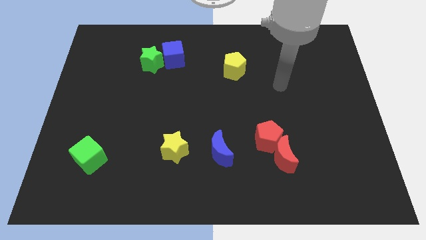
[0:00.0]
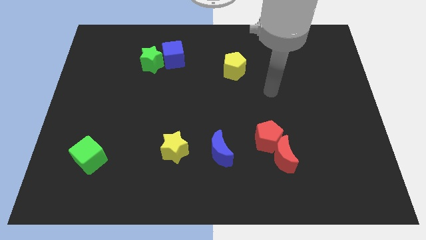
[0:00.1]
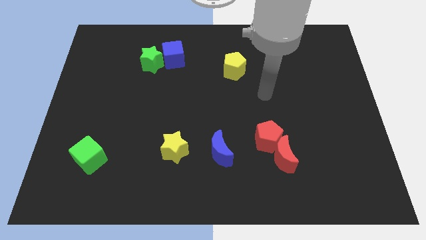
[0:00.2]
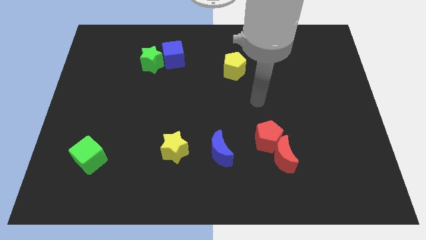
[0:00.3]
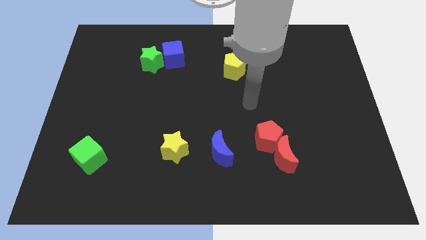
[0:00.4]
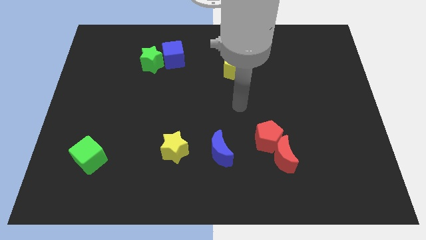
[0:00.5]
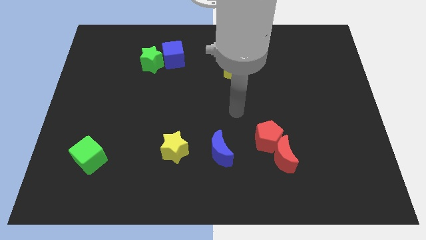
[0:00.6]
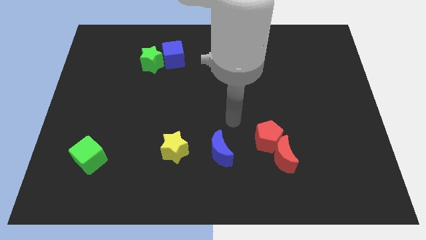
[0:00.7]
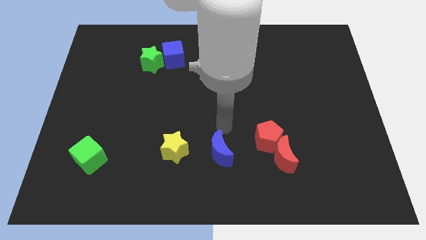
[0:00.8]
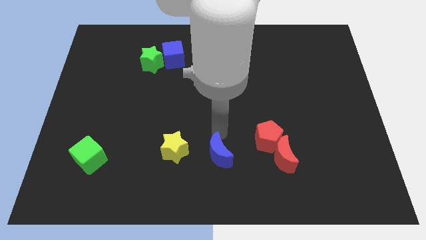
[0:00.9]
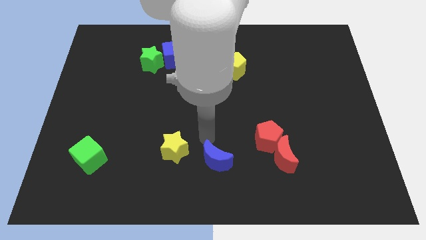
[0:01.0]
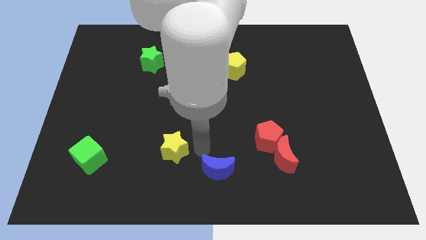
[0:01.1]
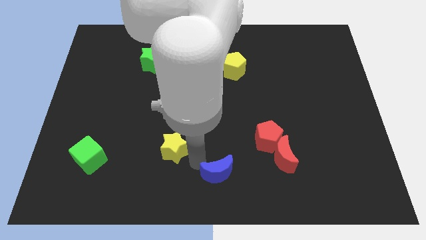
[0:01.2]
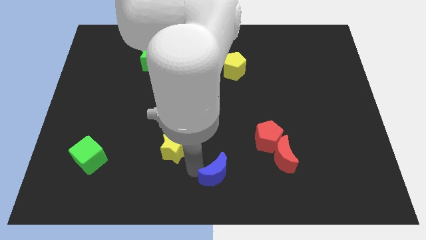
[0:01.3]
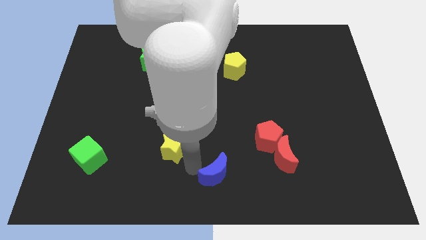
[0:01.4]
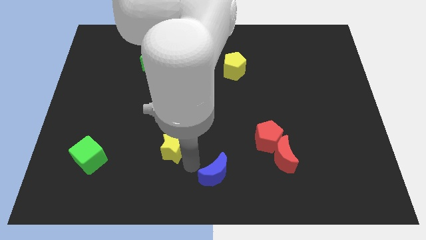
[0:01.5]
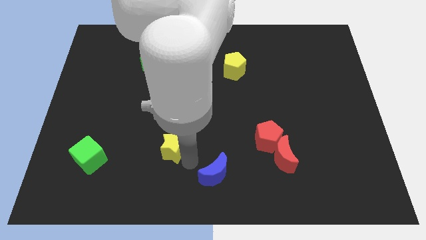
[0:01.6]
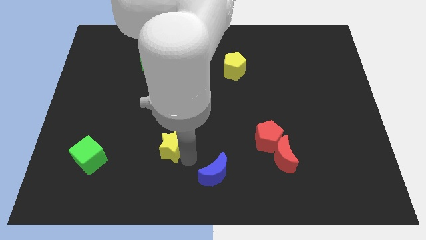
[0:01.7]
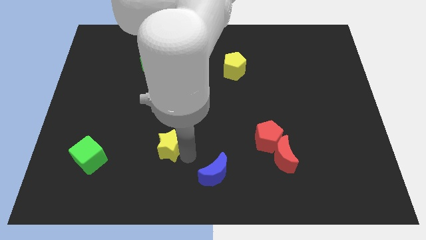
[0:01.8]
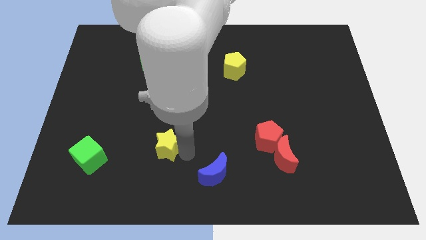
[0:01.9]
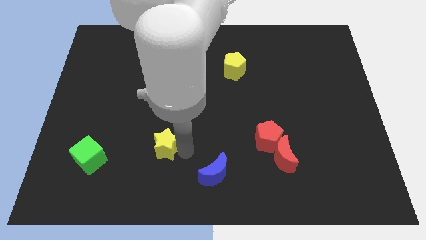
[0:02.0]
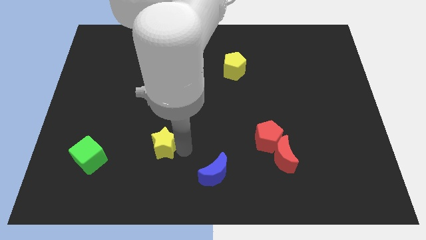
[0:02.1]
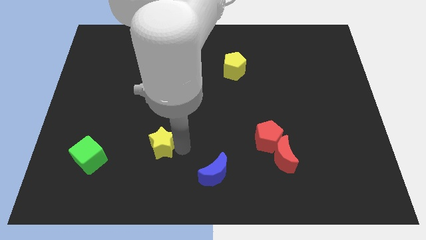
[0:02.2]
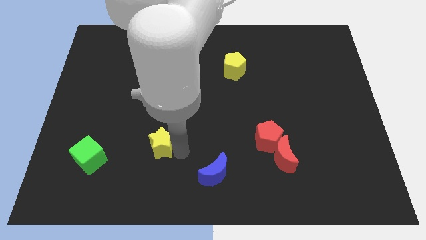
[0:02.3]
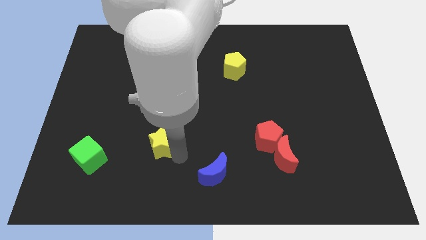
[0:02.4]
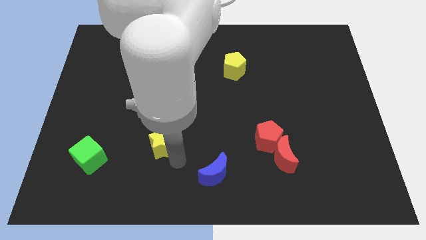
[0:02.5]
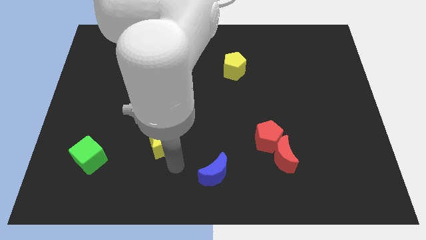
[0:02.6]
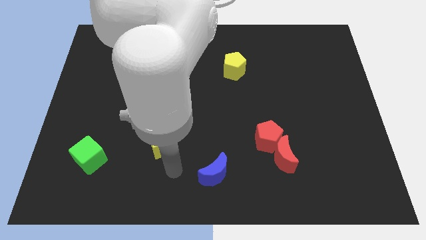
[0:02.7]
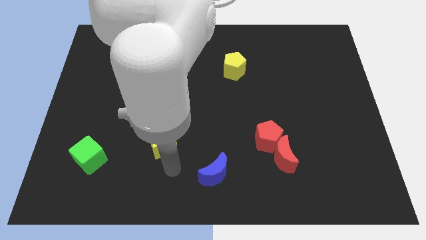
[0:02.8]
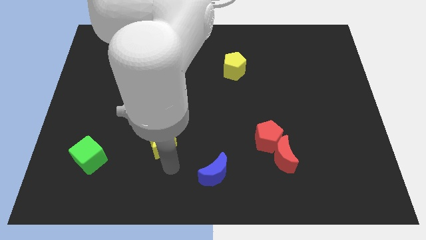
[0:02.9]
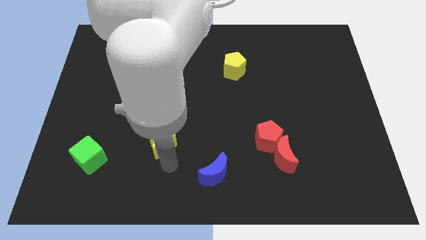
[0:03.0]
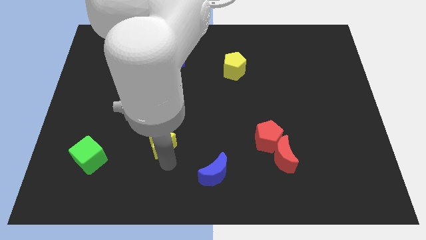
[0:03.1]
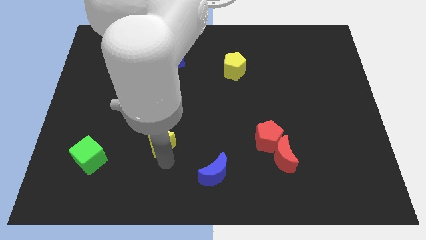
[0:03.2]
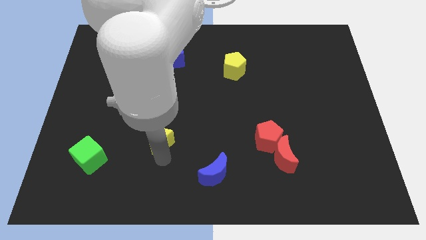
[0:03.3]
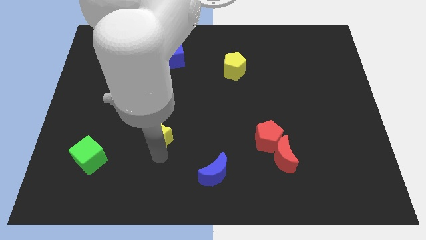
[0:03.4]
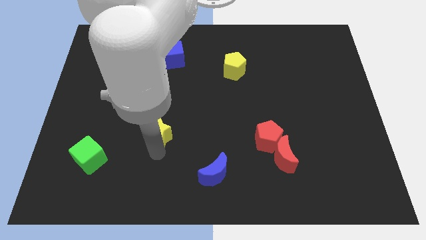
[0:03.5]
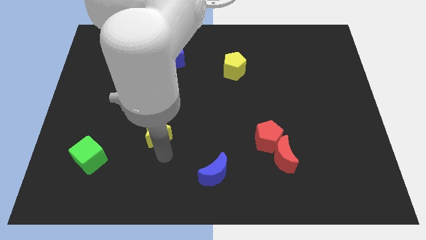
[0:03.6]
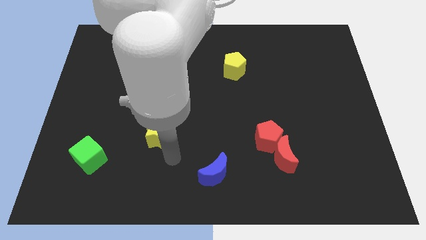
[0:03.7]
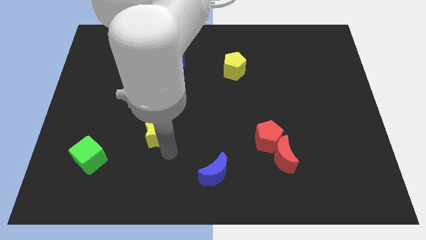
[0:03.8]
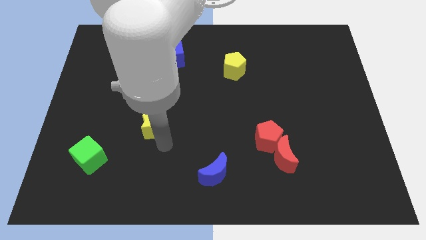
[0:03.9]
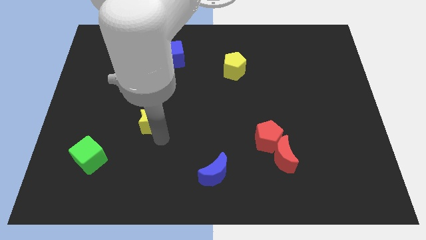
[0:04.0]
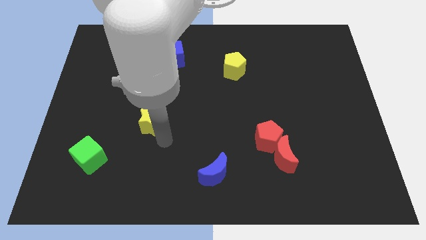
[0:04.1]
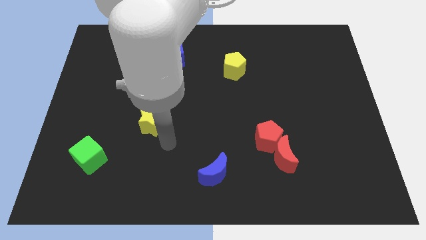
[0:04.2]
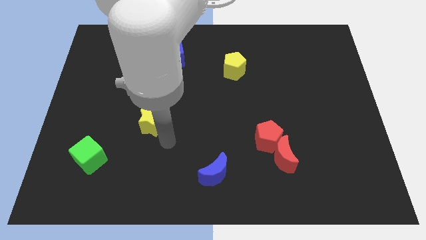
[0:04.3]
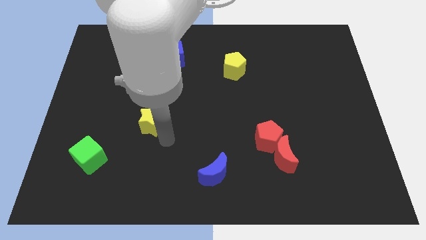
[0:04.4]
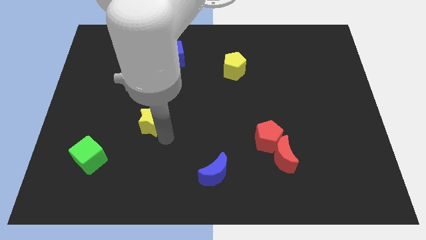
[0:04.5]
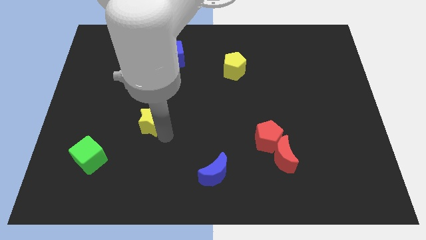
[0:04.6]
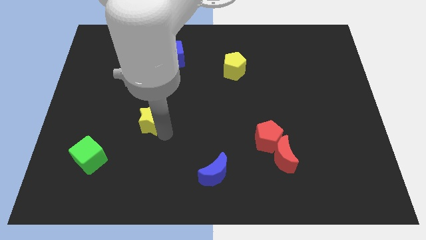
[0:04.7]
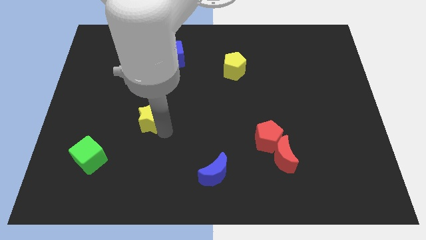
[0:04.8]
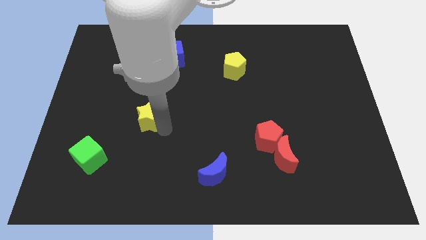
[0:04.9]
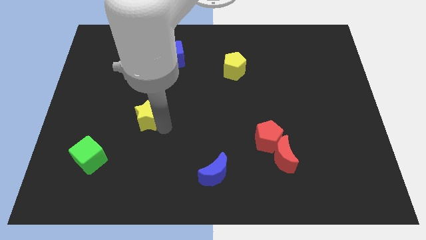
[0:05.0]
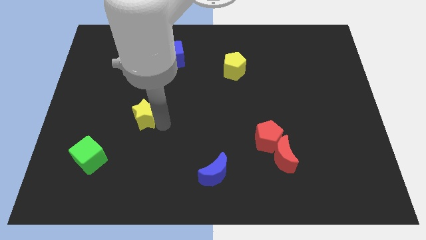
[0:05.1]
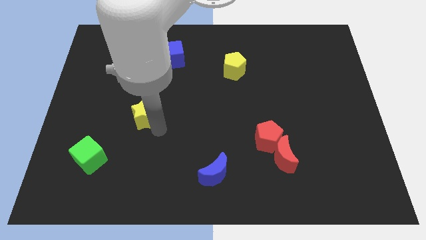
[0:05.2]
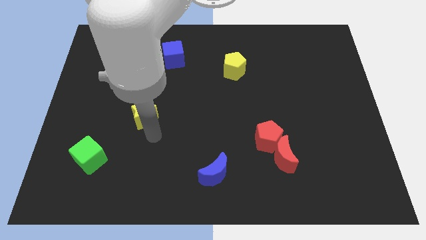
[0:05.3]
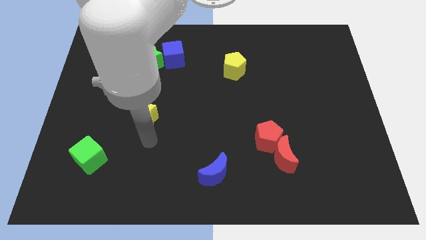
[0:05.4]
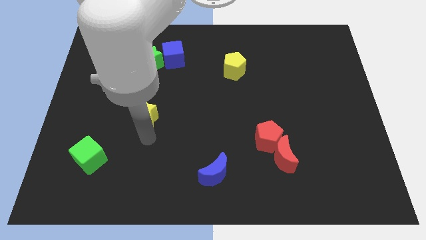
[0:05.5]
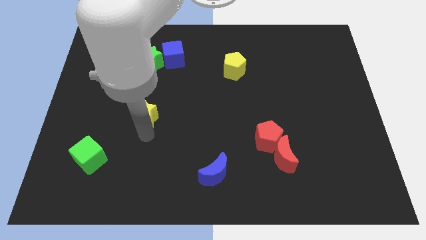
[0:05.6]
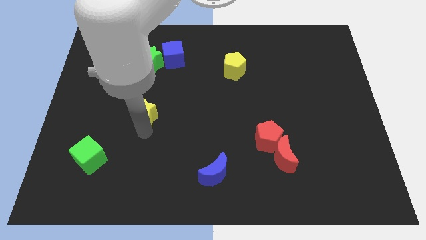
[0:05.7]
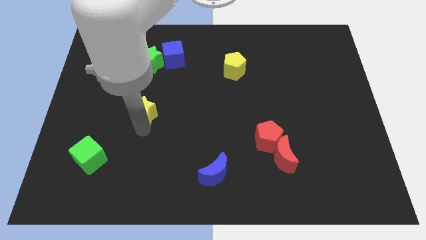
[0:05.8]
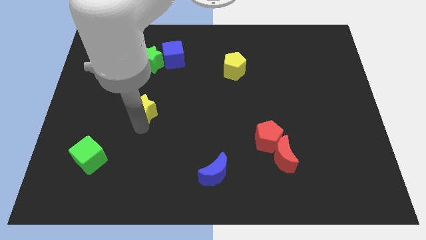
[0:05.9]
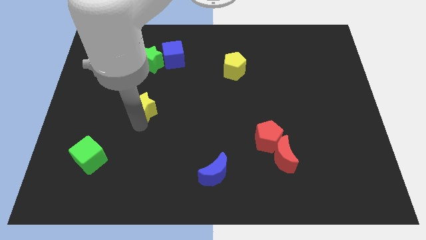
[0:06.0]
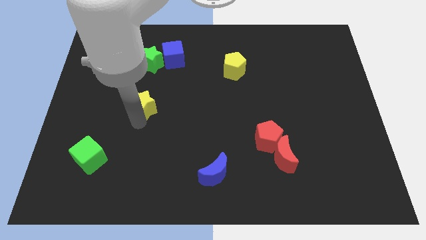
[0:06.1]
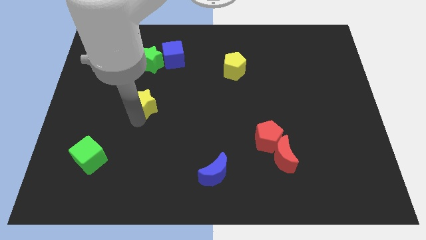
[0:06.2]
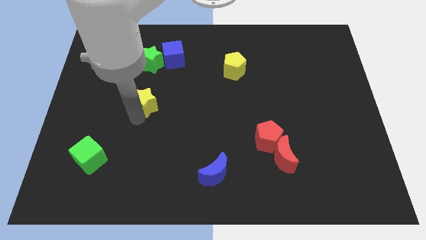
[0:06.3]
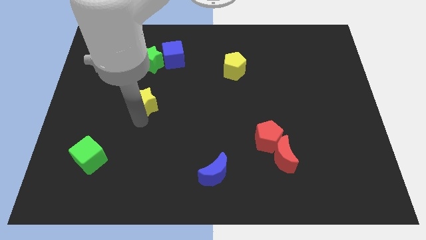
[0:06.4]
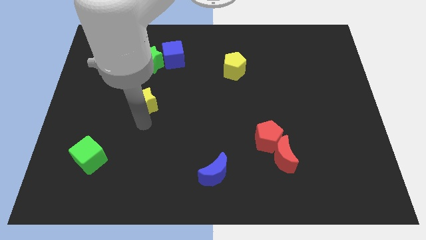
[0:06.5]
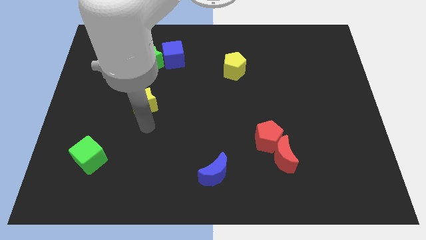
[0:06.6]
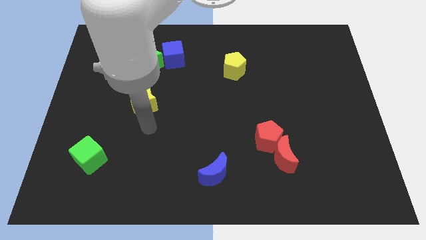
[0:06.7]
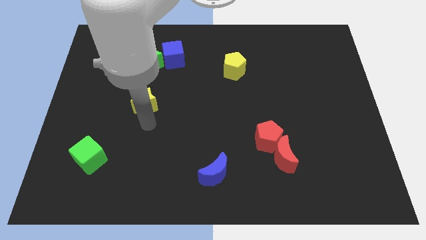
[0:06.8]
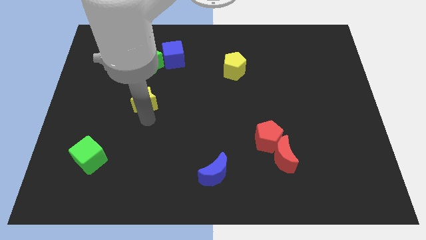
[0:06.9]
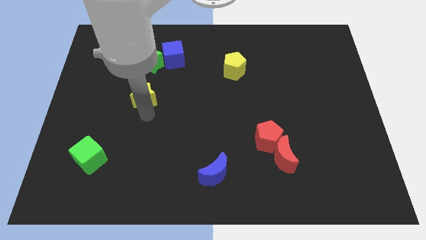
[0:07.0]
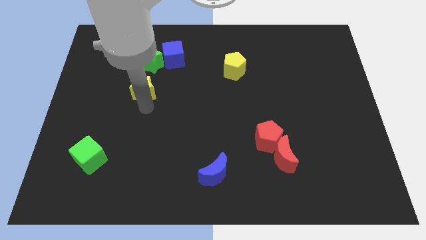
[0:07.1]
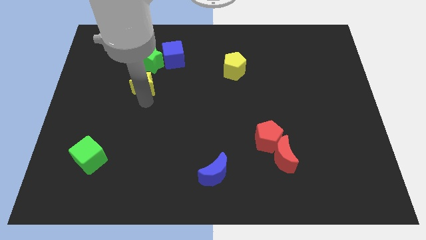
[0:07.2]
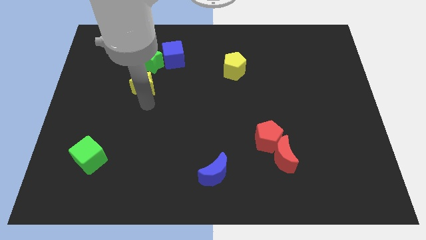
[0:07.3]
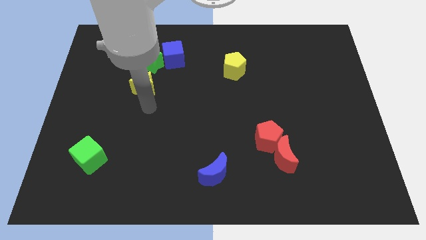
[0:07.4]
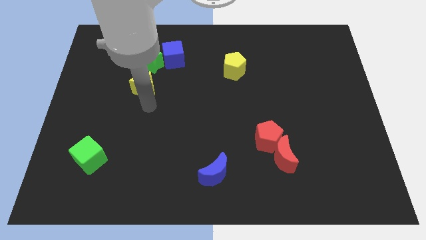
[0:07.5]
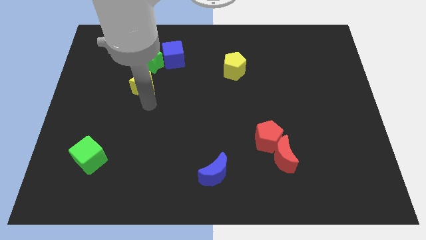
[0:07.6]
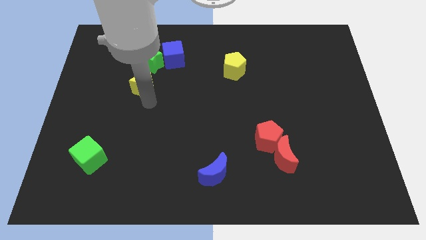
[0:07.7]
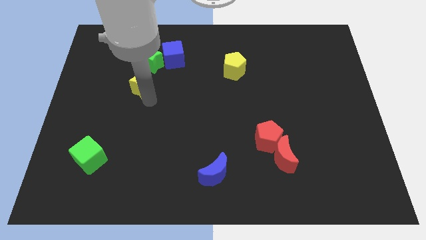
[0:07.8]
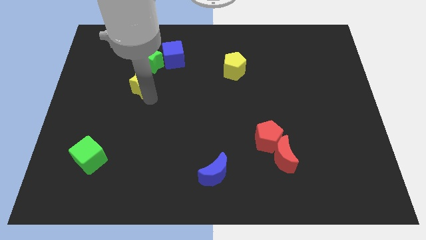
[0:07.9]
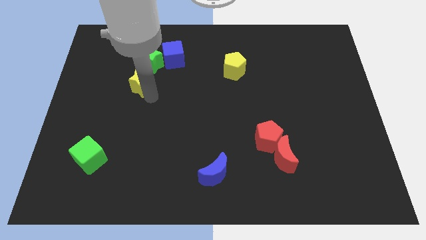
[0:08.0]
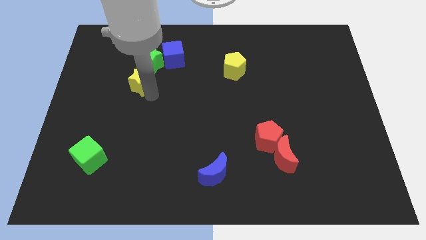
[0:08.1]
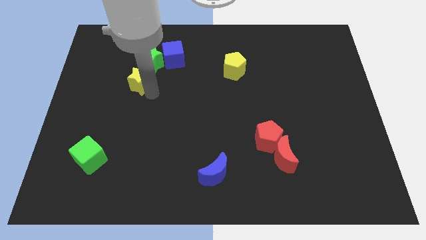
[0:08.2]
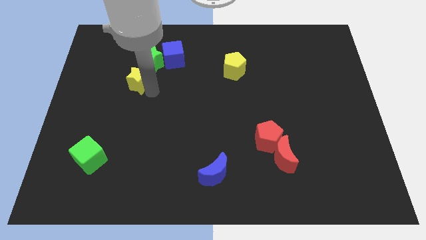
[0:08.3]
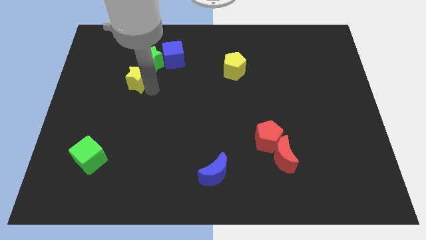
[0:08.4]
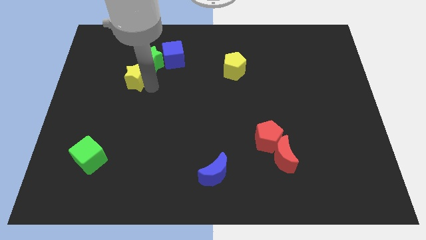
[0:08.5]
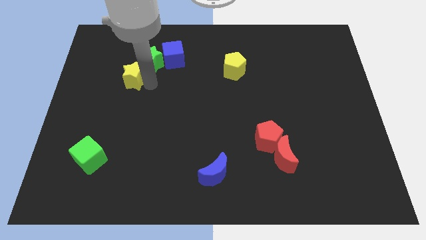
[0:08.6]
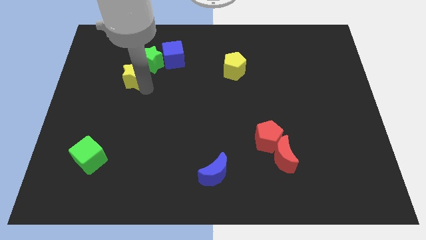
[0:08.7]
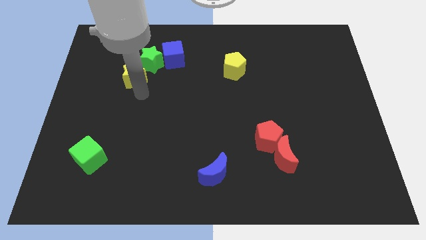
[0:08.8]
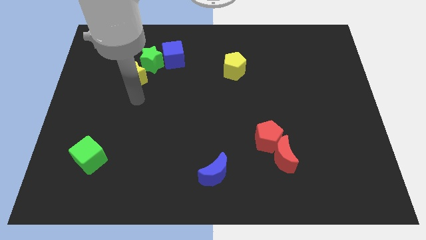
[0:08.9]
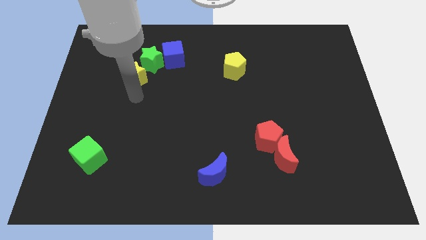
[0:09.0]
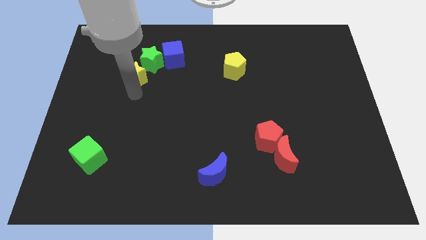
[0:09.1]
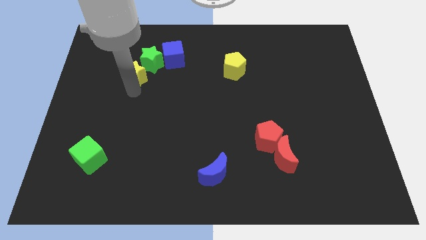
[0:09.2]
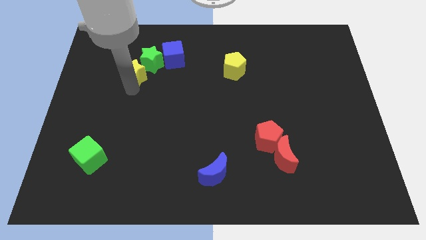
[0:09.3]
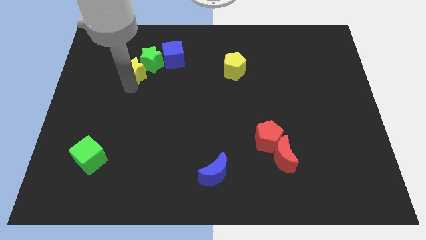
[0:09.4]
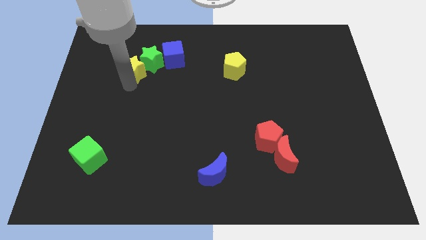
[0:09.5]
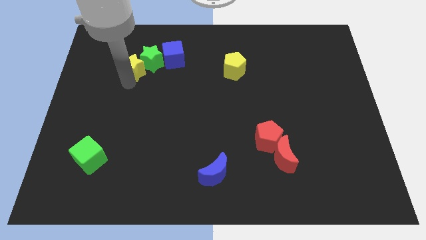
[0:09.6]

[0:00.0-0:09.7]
put the yellow star to the left side of the blue cube
